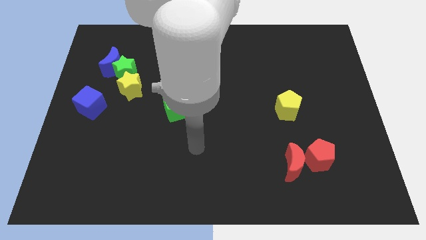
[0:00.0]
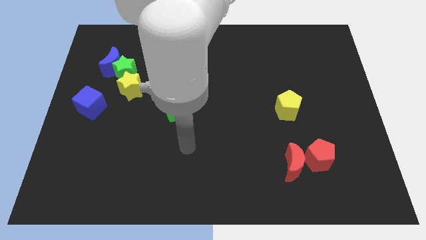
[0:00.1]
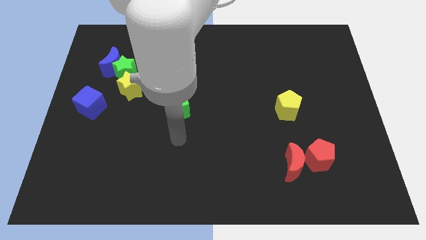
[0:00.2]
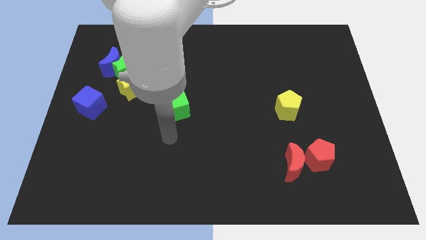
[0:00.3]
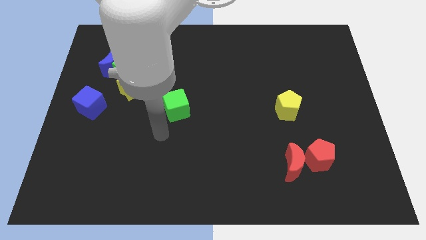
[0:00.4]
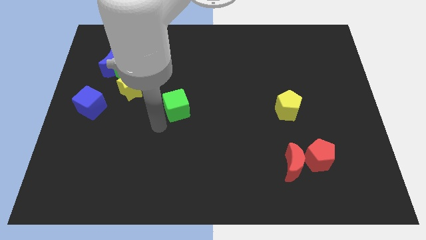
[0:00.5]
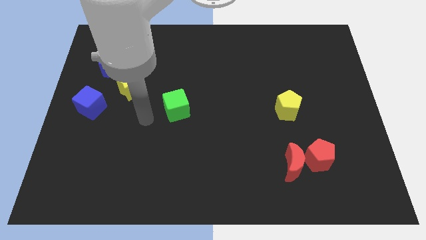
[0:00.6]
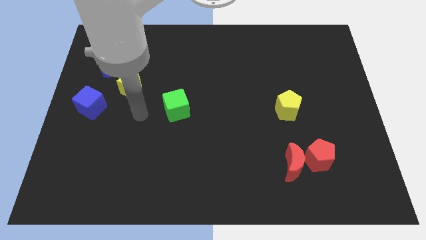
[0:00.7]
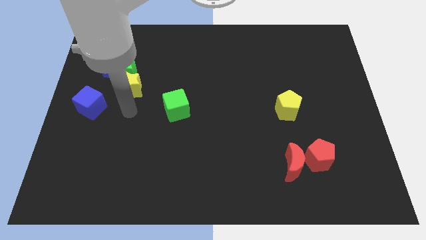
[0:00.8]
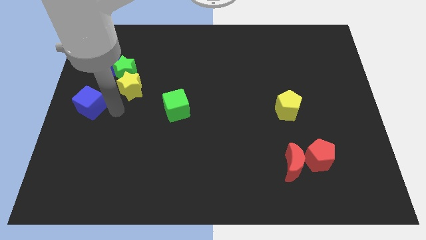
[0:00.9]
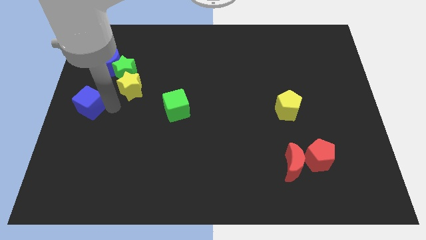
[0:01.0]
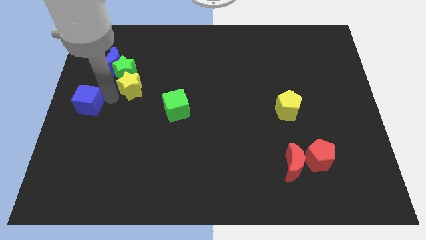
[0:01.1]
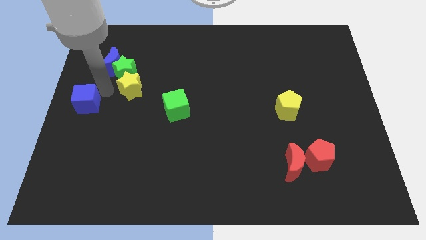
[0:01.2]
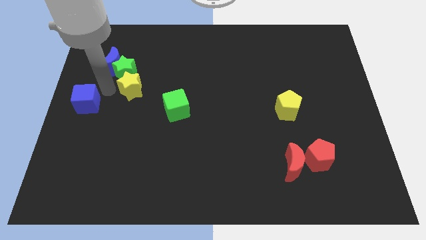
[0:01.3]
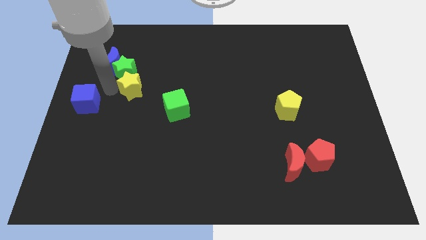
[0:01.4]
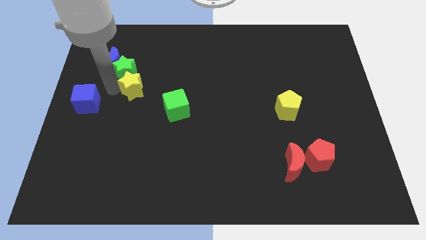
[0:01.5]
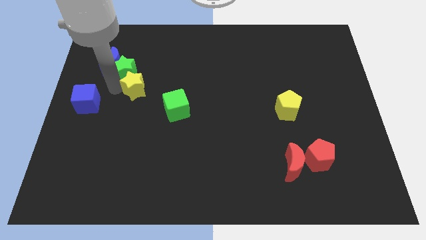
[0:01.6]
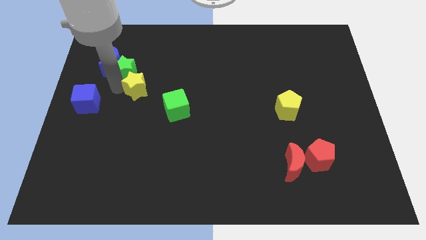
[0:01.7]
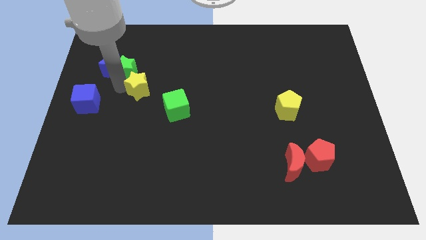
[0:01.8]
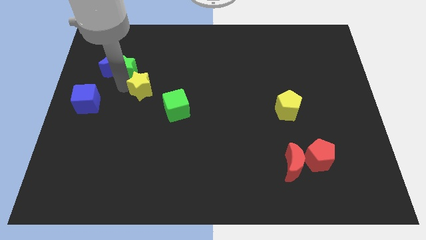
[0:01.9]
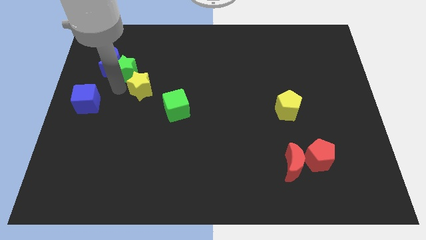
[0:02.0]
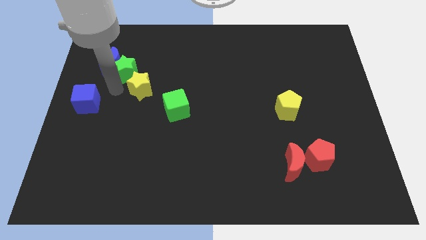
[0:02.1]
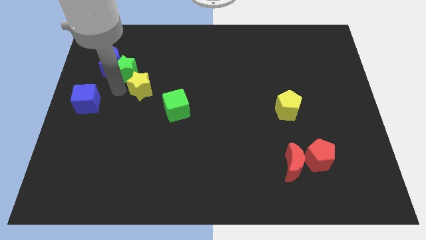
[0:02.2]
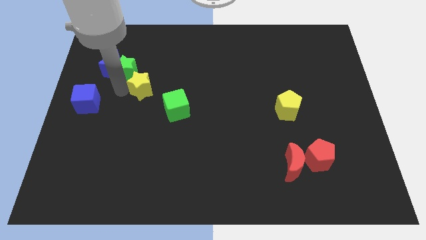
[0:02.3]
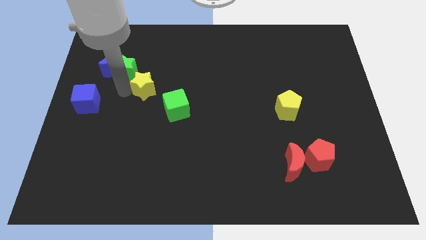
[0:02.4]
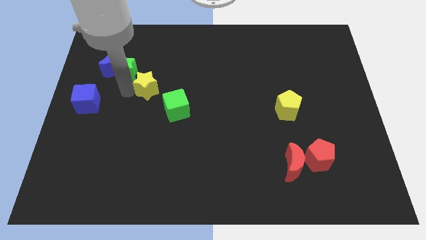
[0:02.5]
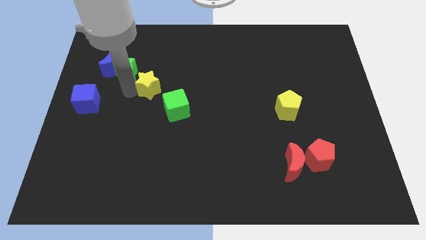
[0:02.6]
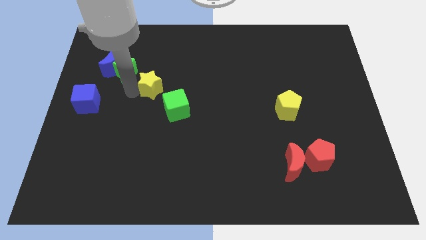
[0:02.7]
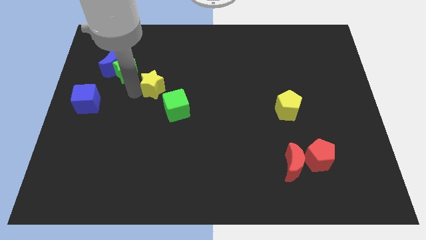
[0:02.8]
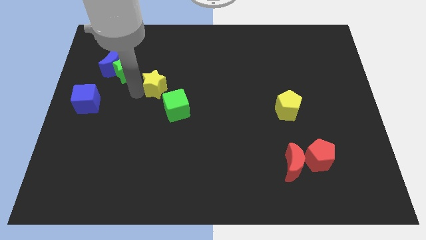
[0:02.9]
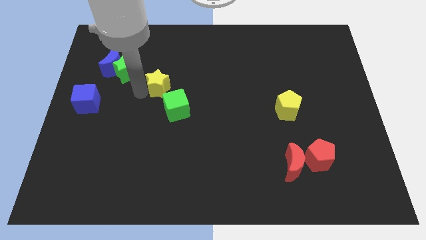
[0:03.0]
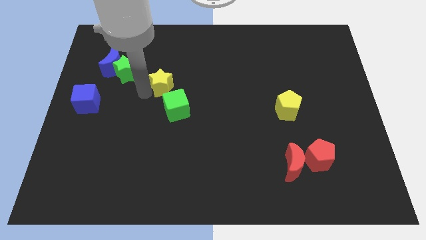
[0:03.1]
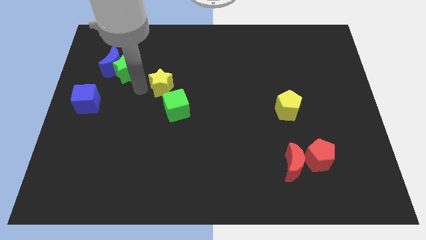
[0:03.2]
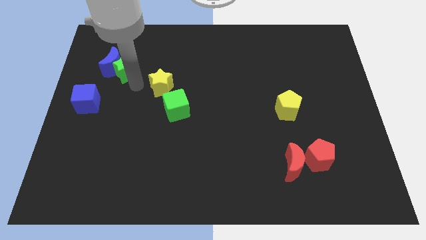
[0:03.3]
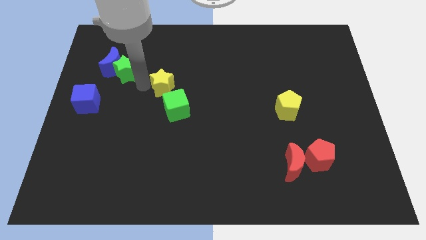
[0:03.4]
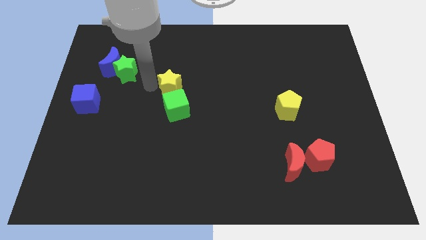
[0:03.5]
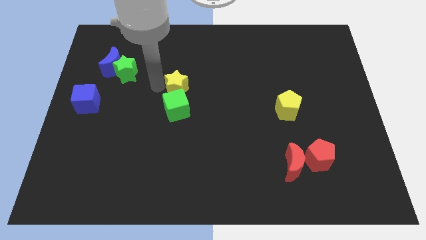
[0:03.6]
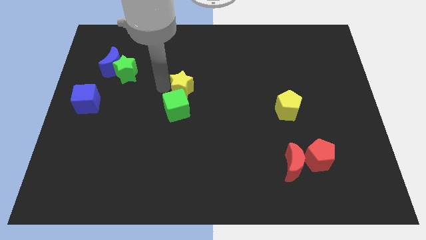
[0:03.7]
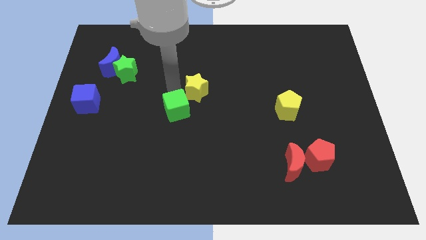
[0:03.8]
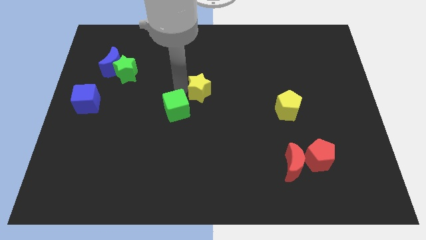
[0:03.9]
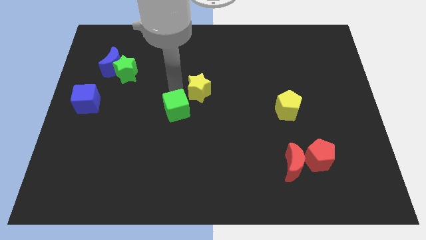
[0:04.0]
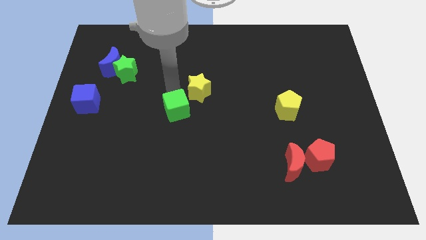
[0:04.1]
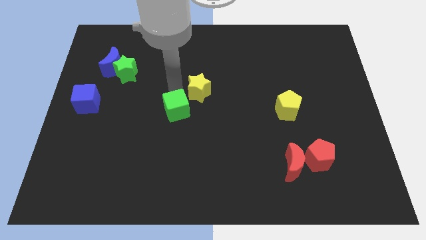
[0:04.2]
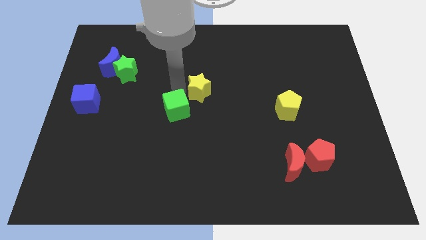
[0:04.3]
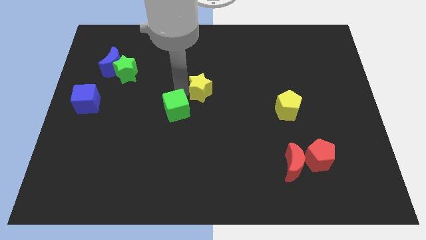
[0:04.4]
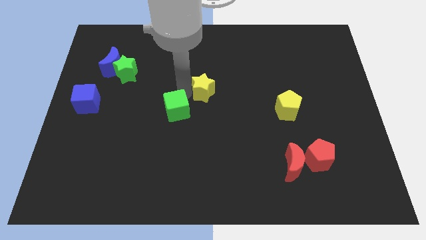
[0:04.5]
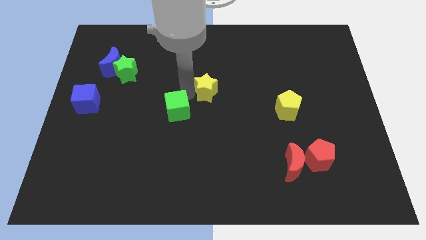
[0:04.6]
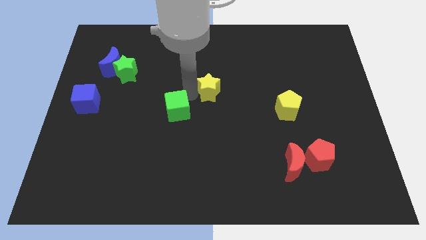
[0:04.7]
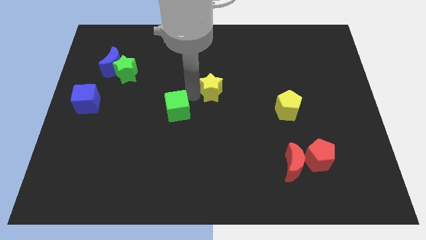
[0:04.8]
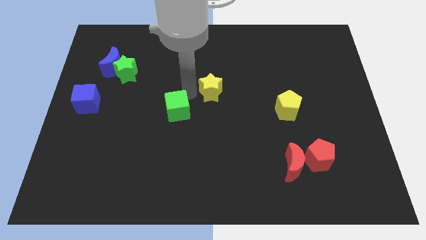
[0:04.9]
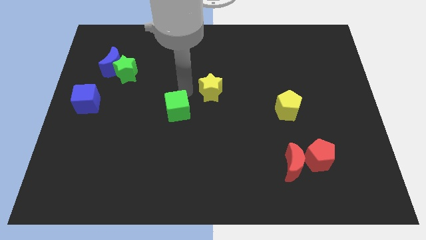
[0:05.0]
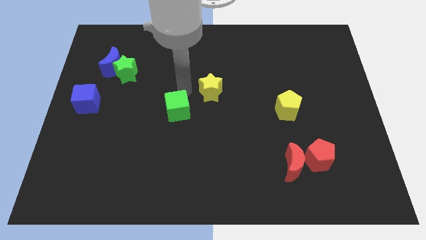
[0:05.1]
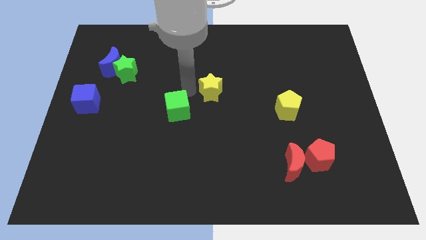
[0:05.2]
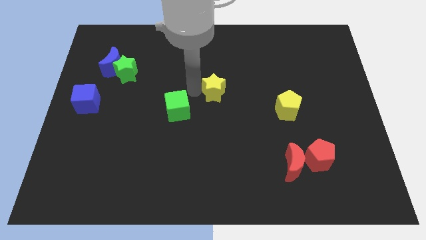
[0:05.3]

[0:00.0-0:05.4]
move the yellow star to the right

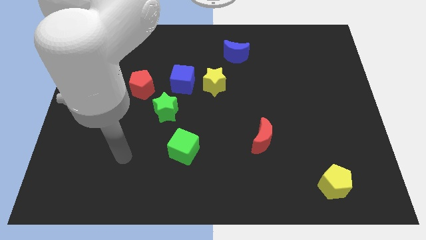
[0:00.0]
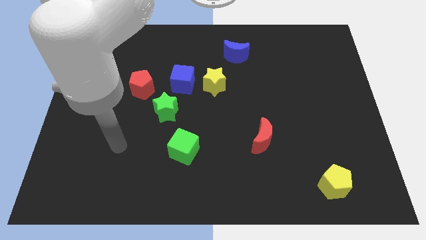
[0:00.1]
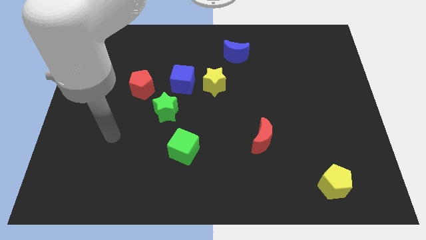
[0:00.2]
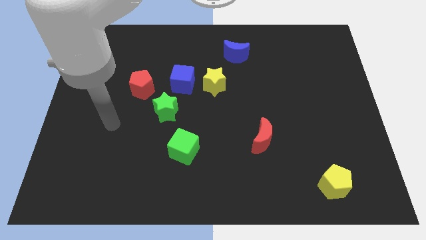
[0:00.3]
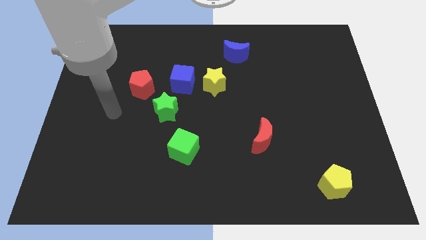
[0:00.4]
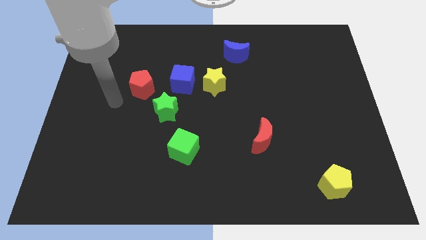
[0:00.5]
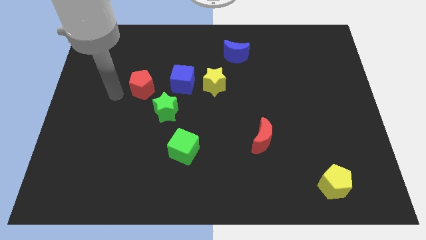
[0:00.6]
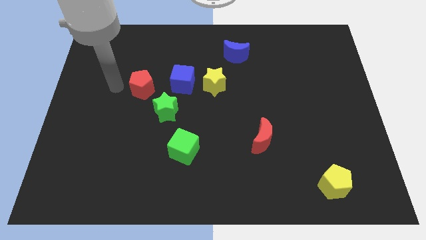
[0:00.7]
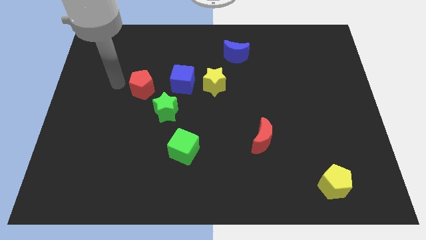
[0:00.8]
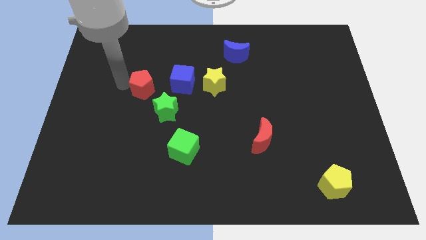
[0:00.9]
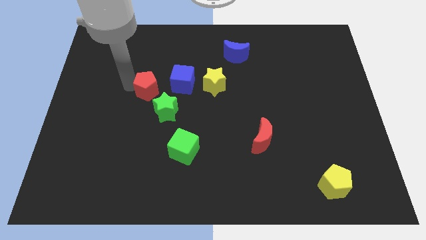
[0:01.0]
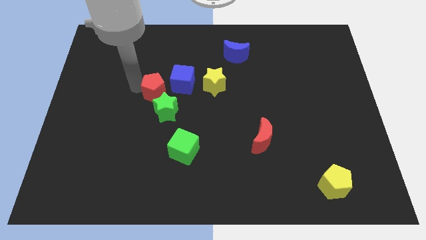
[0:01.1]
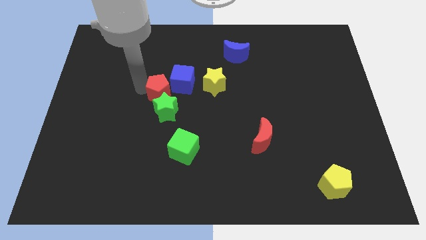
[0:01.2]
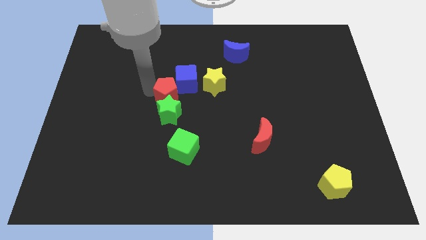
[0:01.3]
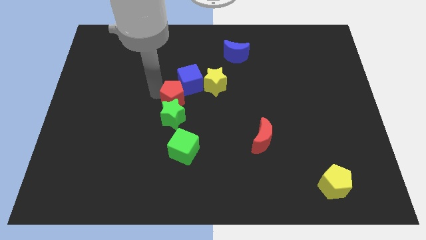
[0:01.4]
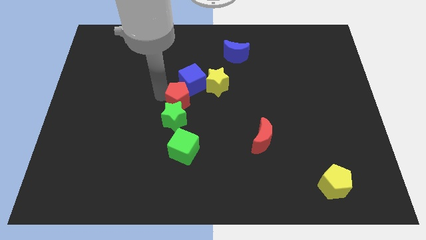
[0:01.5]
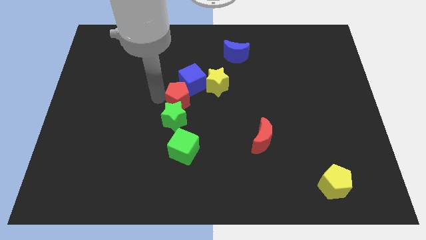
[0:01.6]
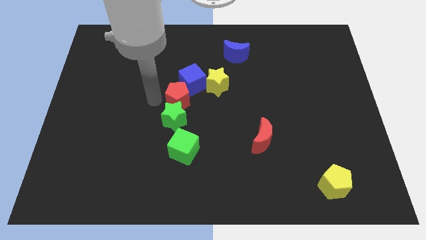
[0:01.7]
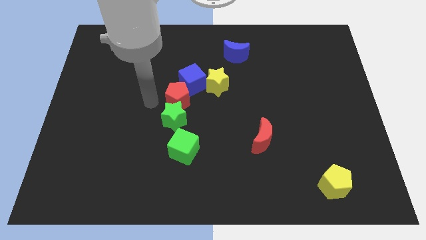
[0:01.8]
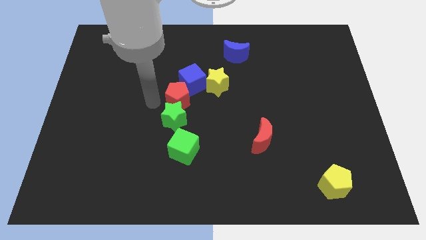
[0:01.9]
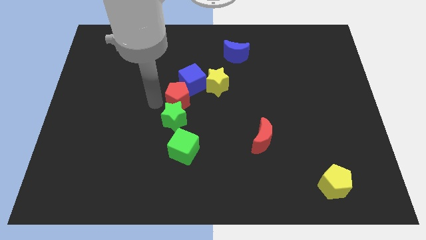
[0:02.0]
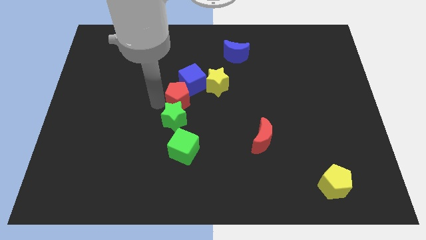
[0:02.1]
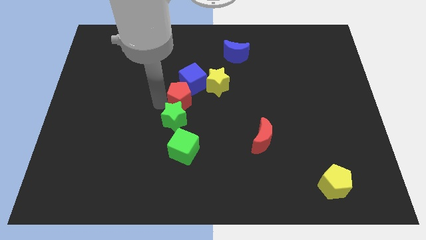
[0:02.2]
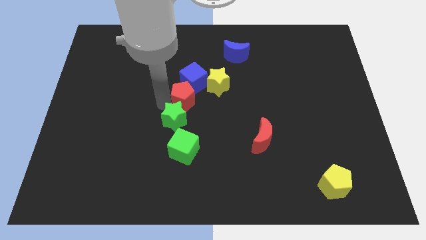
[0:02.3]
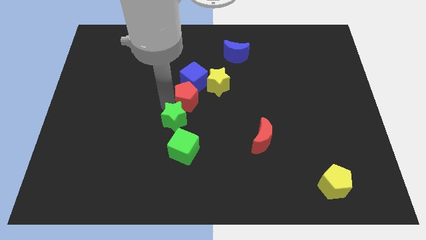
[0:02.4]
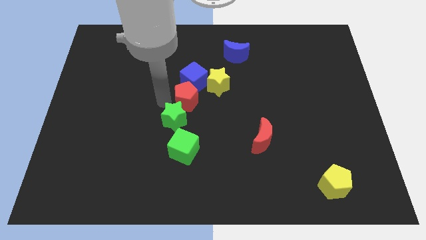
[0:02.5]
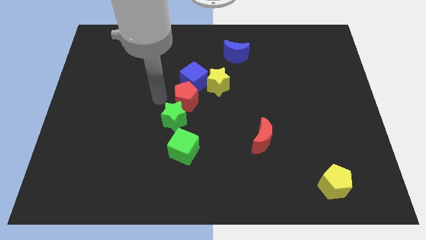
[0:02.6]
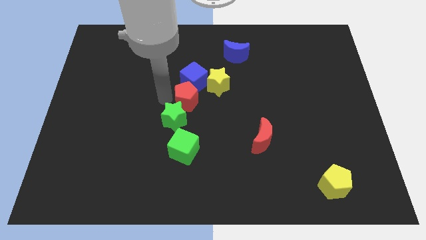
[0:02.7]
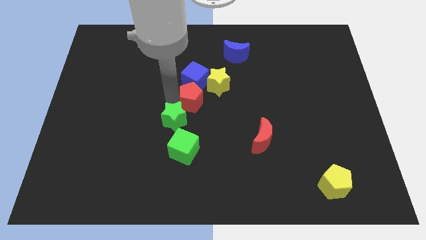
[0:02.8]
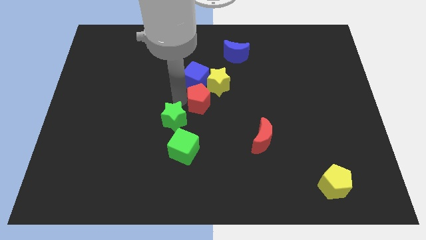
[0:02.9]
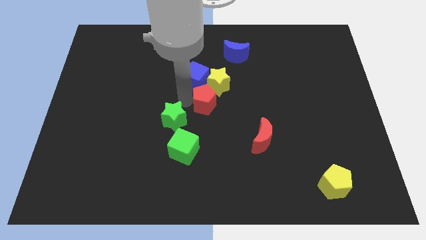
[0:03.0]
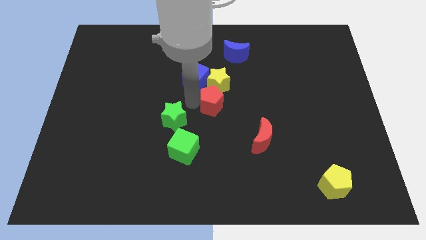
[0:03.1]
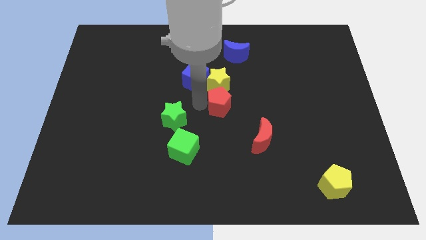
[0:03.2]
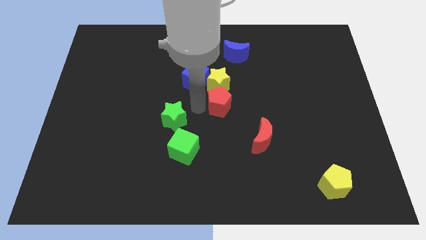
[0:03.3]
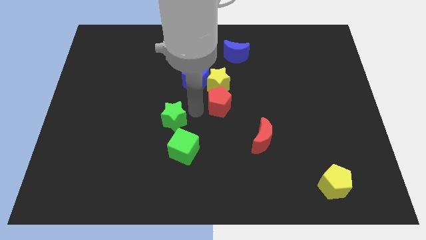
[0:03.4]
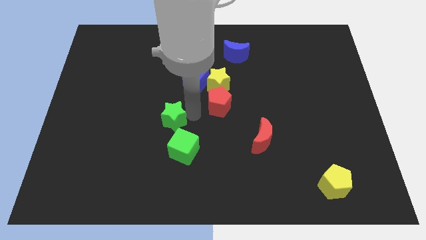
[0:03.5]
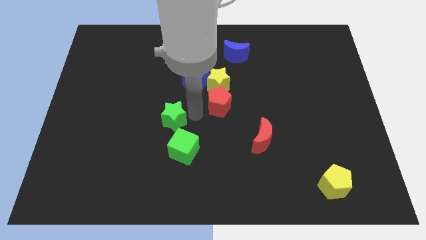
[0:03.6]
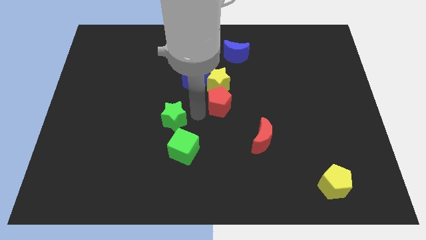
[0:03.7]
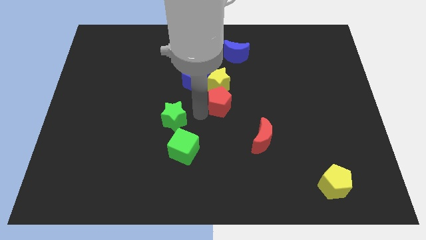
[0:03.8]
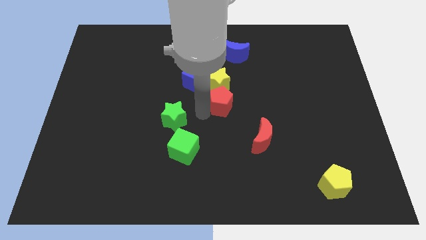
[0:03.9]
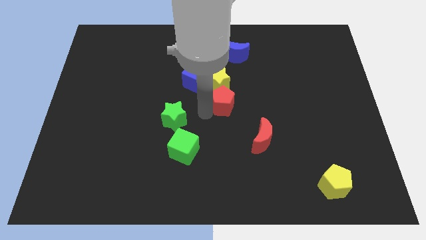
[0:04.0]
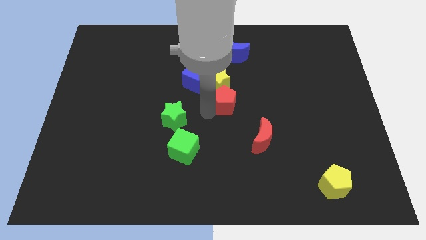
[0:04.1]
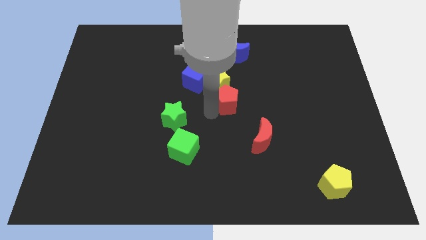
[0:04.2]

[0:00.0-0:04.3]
push the red pentagon right
